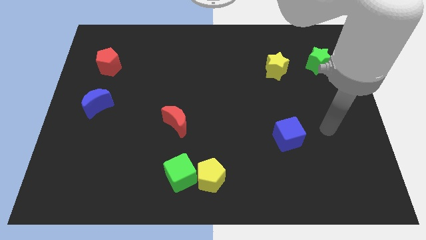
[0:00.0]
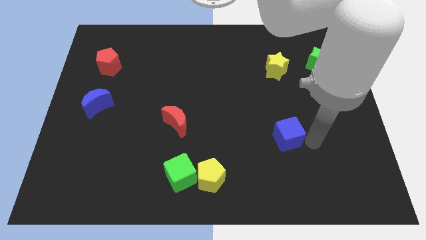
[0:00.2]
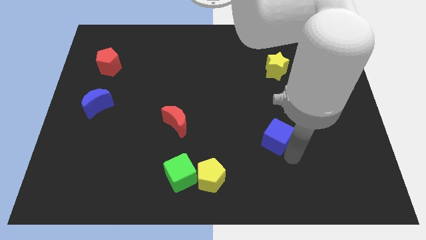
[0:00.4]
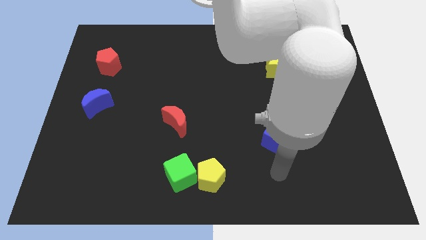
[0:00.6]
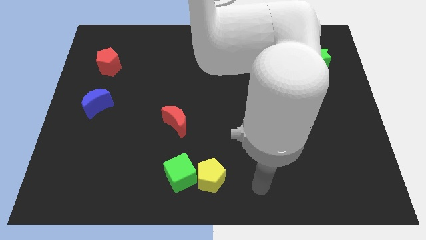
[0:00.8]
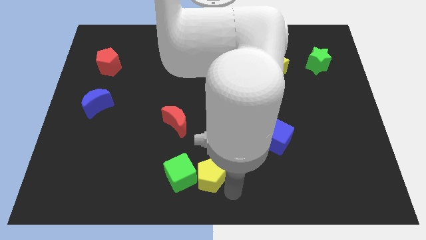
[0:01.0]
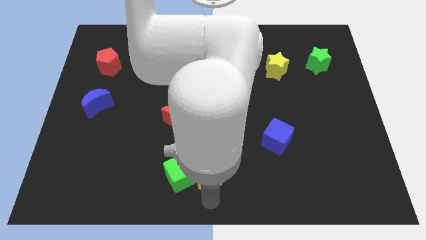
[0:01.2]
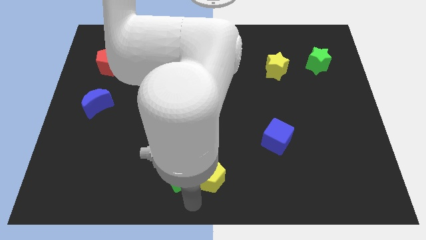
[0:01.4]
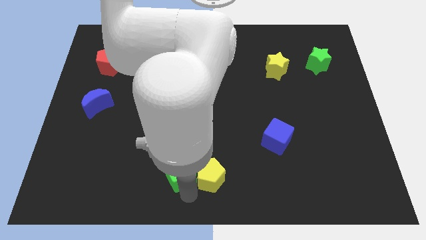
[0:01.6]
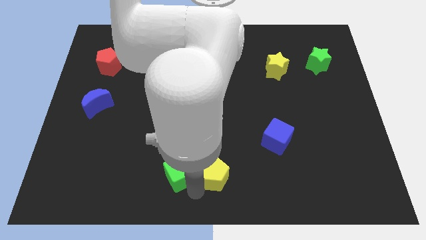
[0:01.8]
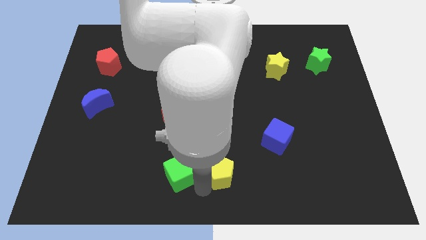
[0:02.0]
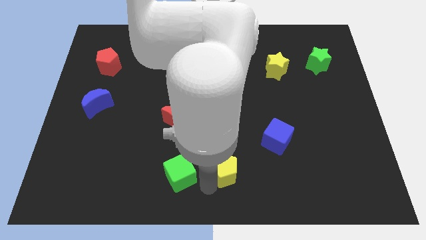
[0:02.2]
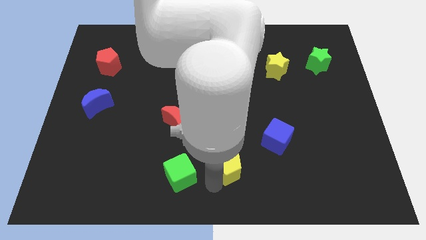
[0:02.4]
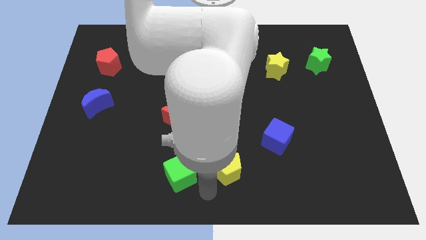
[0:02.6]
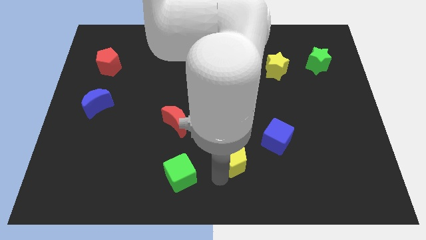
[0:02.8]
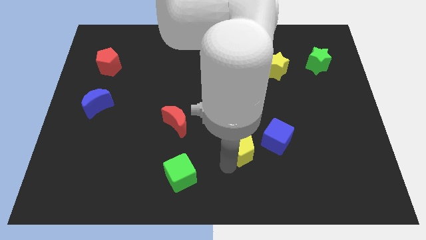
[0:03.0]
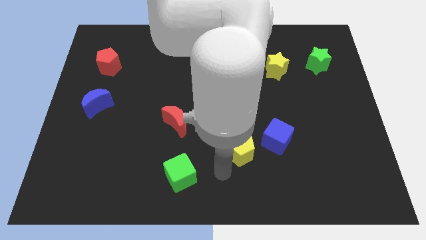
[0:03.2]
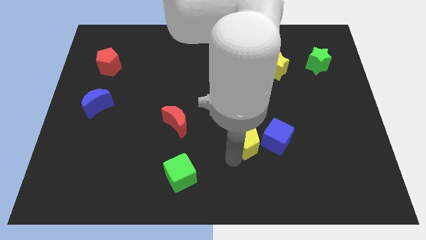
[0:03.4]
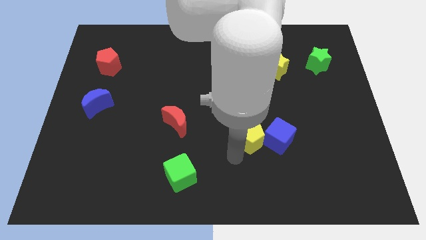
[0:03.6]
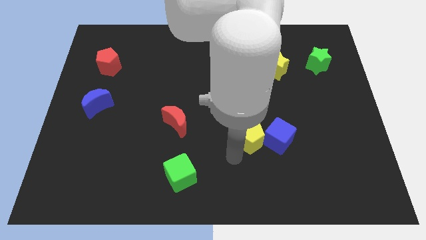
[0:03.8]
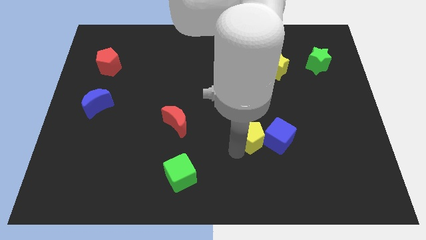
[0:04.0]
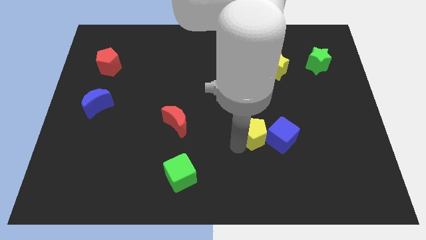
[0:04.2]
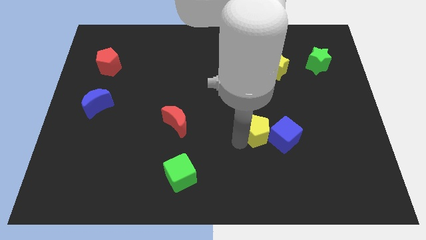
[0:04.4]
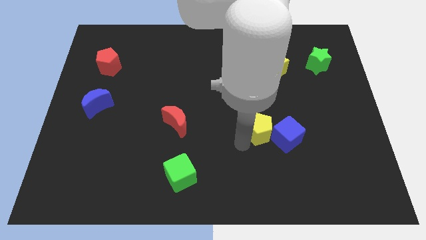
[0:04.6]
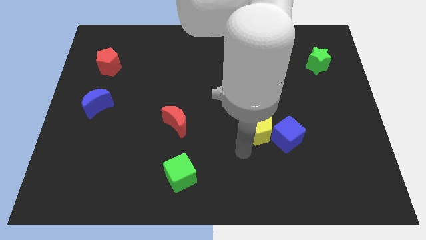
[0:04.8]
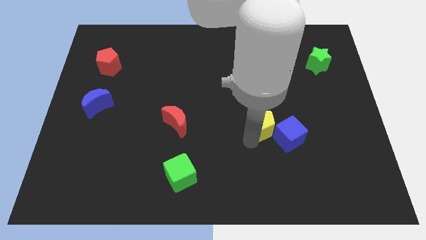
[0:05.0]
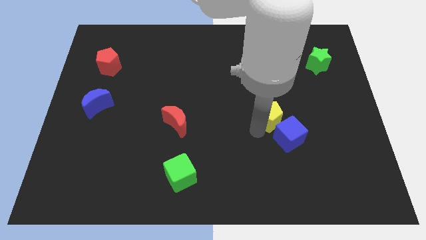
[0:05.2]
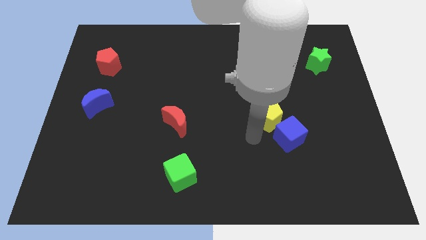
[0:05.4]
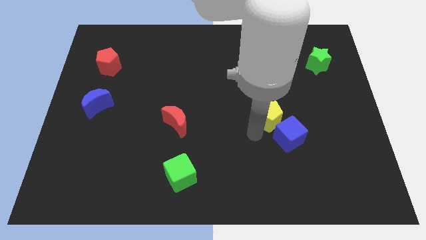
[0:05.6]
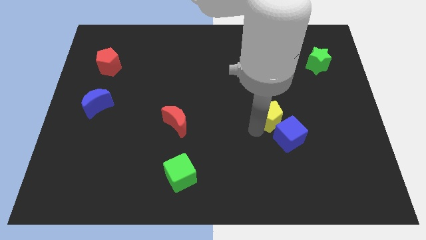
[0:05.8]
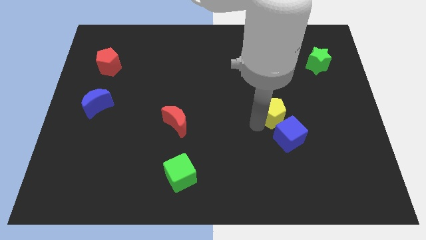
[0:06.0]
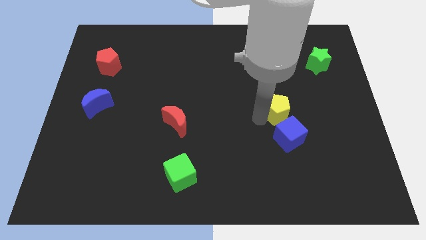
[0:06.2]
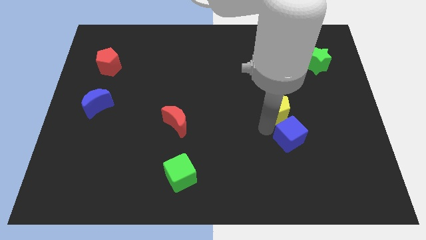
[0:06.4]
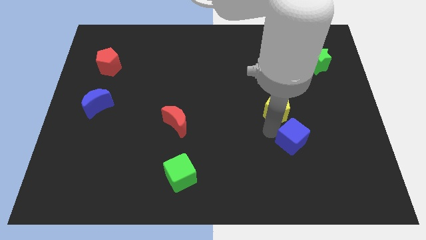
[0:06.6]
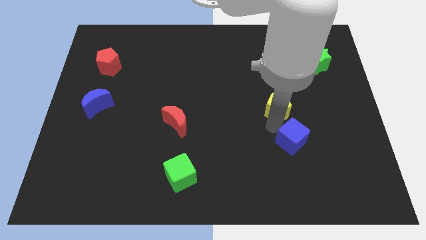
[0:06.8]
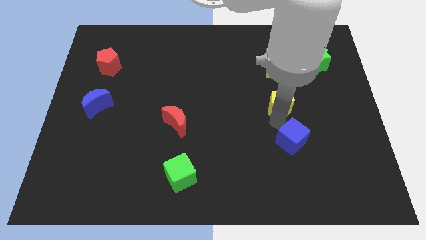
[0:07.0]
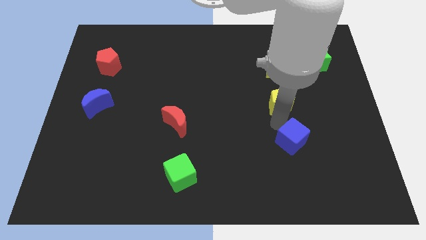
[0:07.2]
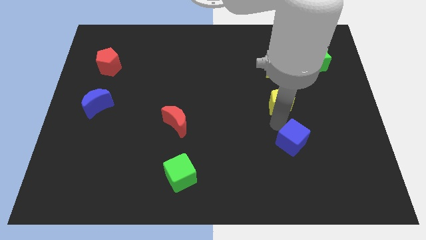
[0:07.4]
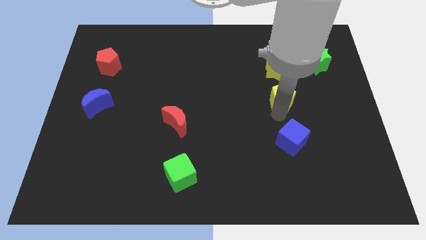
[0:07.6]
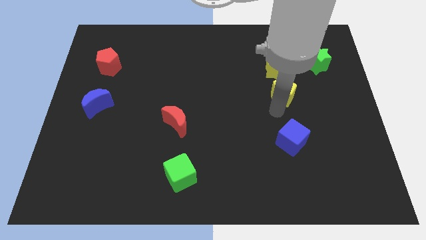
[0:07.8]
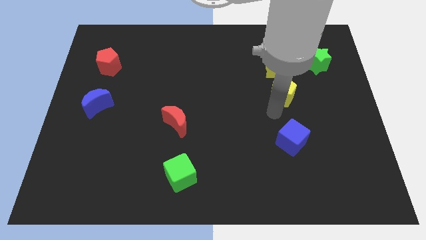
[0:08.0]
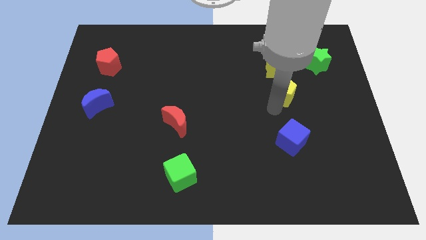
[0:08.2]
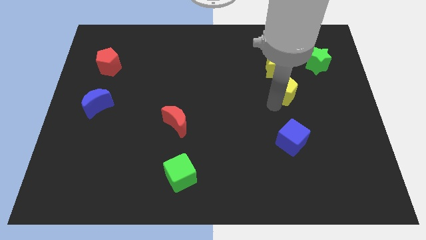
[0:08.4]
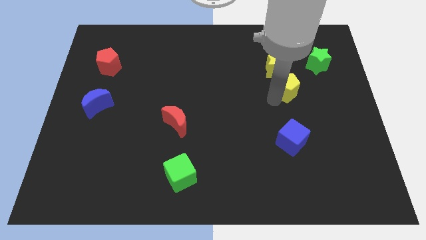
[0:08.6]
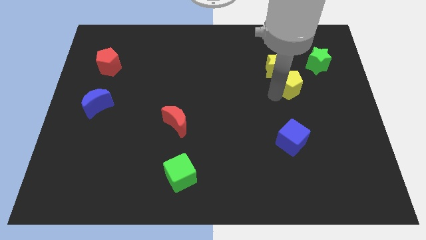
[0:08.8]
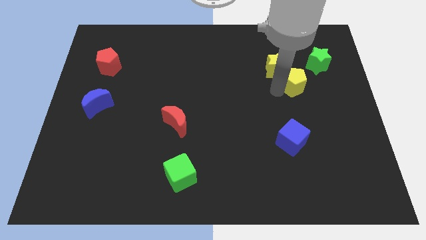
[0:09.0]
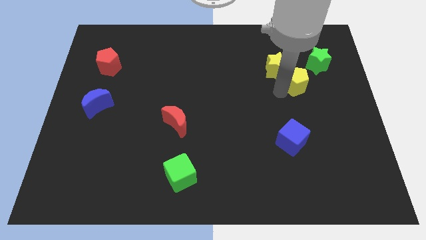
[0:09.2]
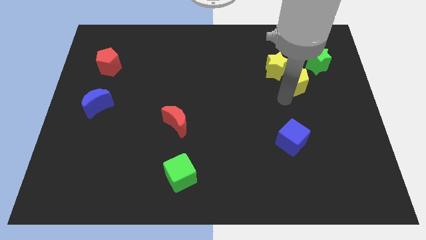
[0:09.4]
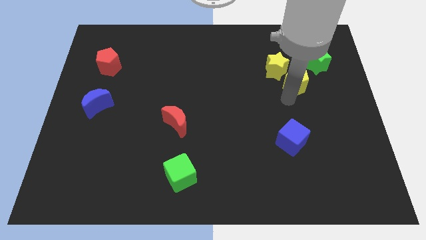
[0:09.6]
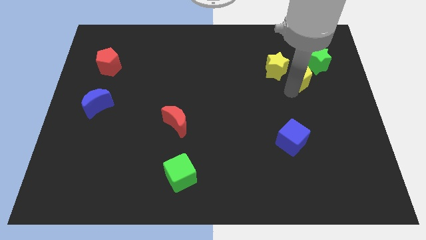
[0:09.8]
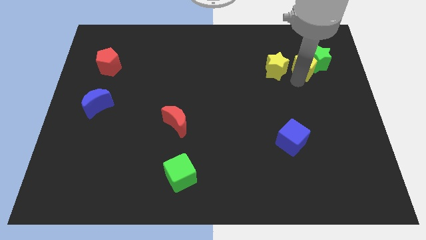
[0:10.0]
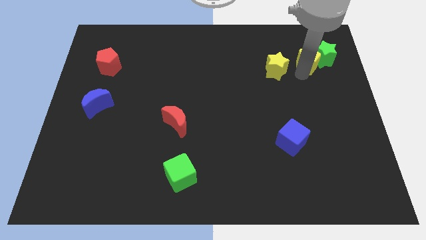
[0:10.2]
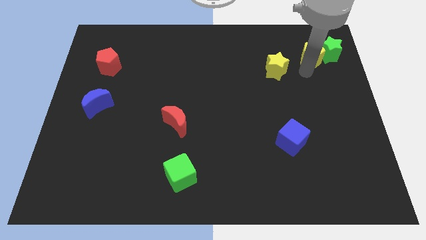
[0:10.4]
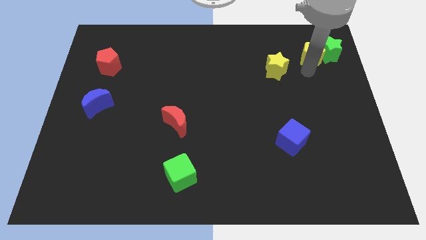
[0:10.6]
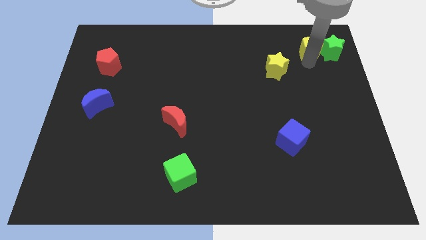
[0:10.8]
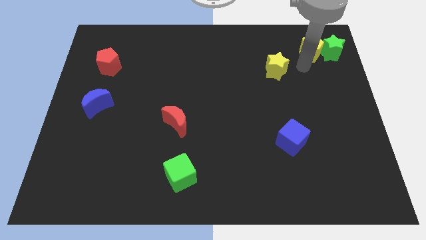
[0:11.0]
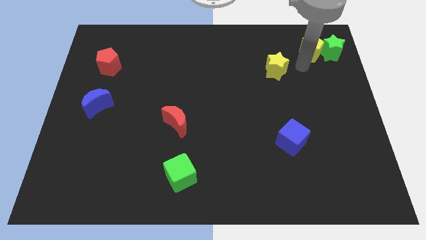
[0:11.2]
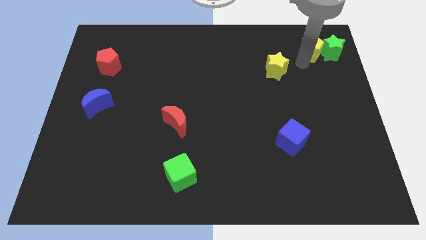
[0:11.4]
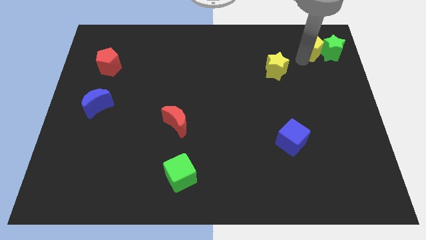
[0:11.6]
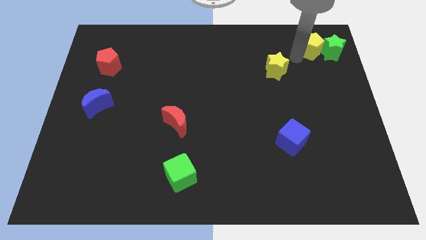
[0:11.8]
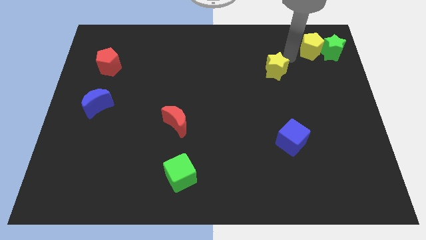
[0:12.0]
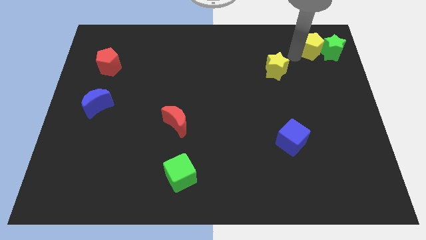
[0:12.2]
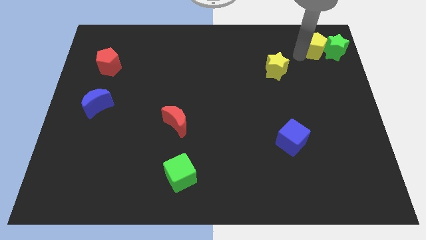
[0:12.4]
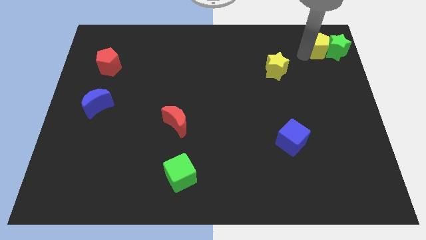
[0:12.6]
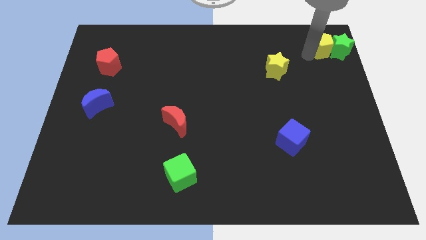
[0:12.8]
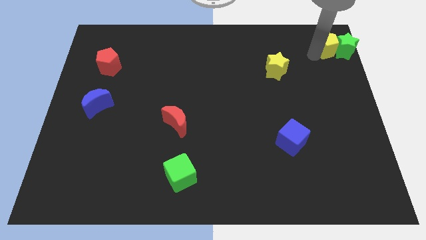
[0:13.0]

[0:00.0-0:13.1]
slide the yellow pentagon to the upper right corner
